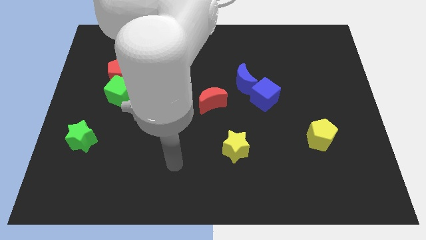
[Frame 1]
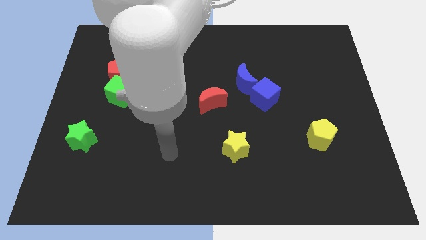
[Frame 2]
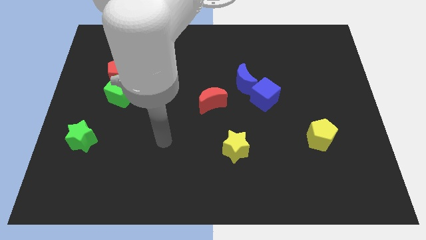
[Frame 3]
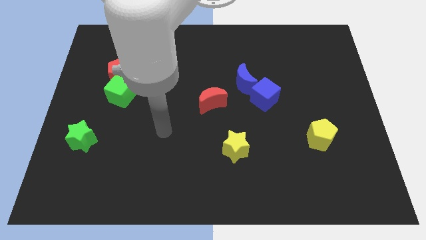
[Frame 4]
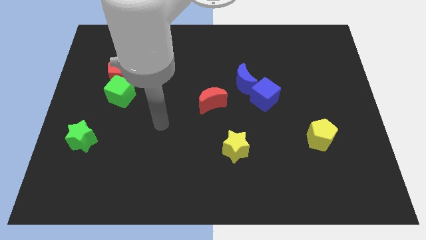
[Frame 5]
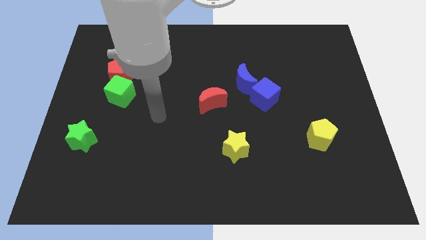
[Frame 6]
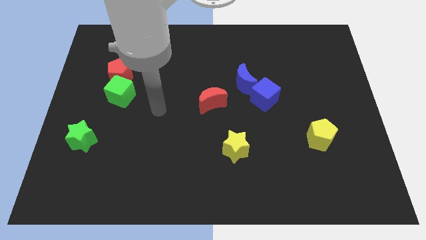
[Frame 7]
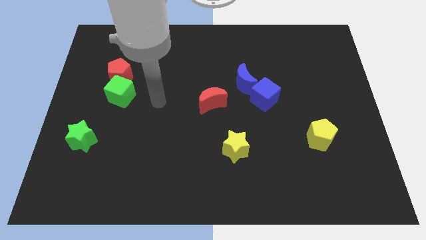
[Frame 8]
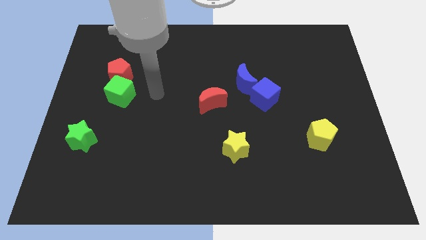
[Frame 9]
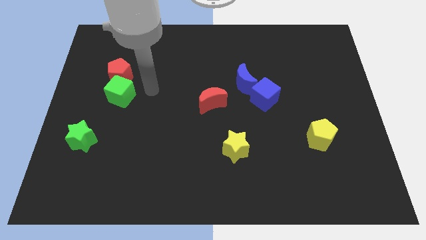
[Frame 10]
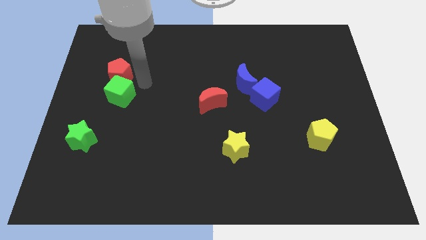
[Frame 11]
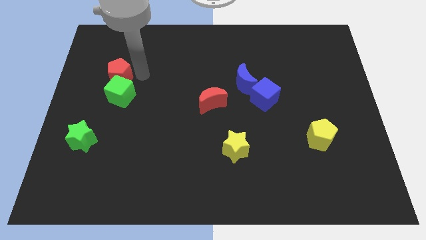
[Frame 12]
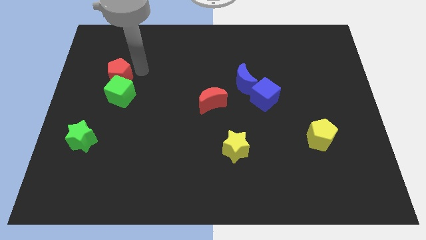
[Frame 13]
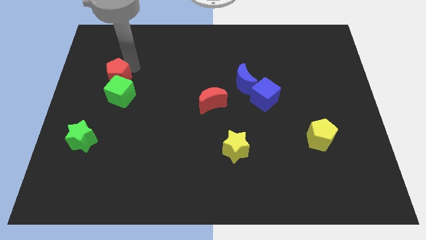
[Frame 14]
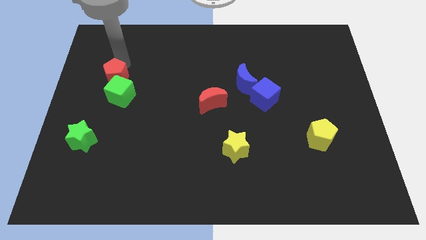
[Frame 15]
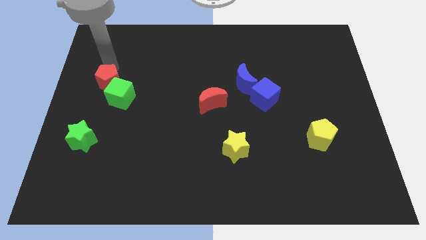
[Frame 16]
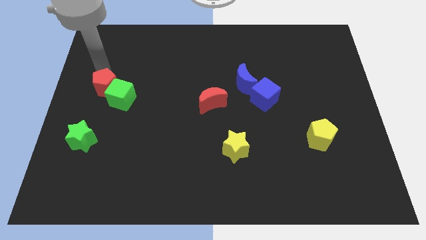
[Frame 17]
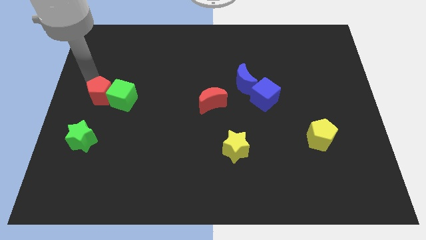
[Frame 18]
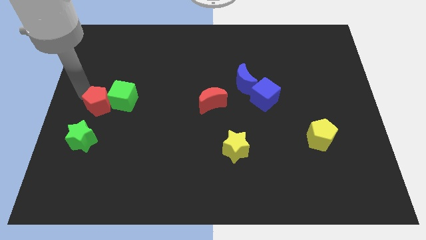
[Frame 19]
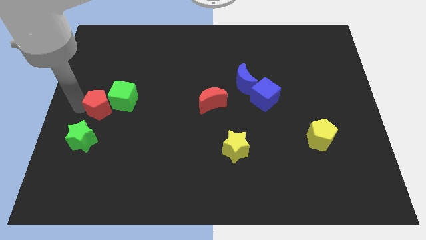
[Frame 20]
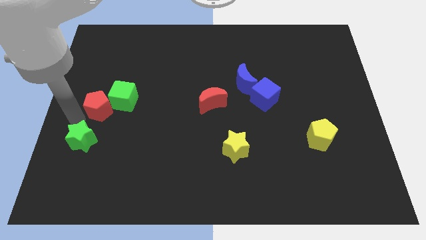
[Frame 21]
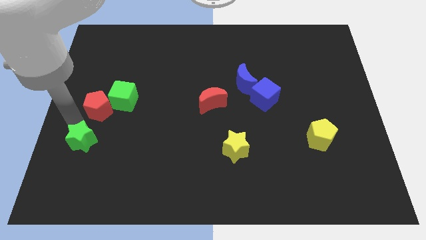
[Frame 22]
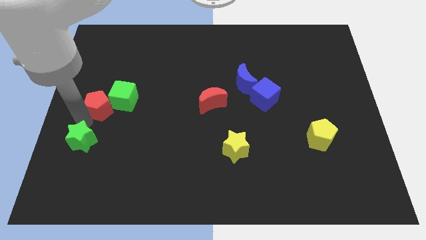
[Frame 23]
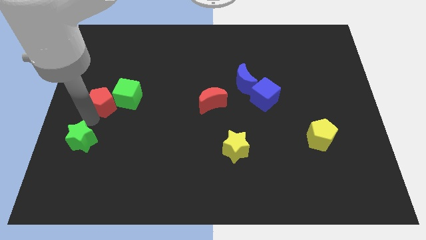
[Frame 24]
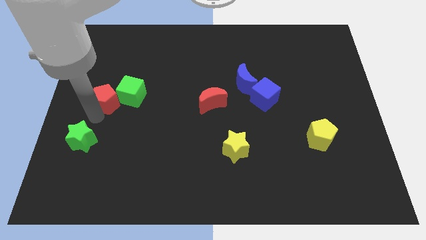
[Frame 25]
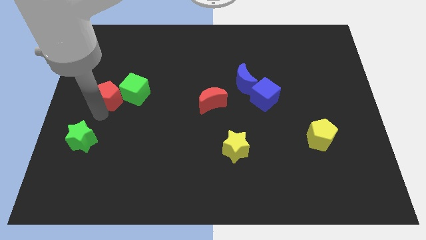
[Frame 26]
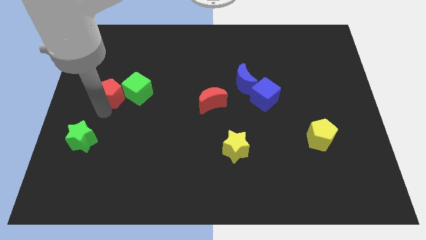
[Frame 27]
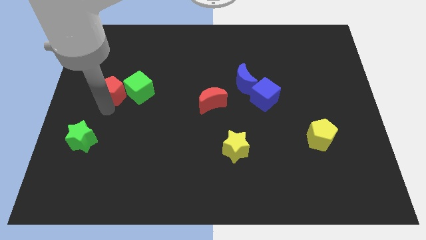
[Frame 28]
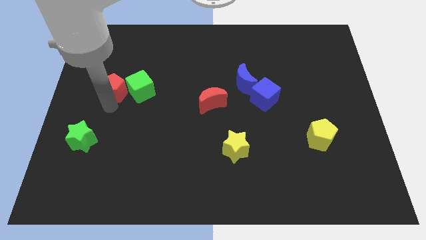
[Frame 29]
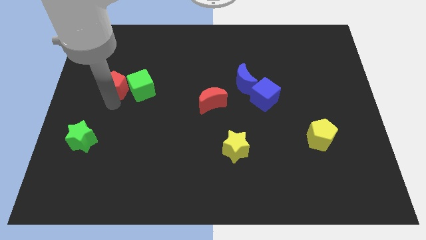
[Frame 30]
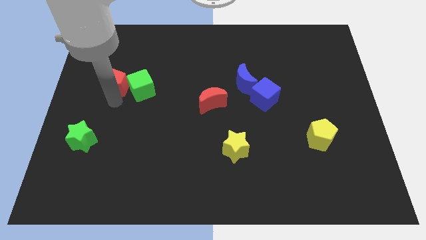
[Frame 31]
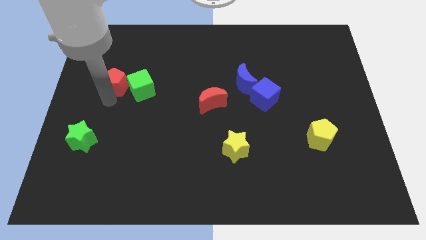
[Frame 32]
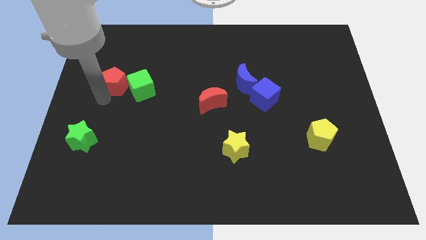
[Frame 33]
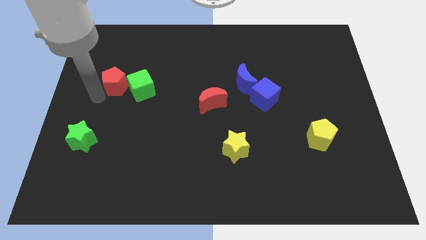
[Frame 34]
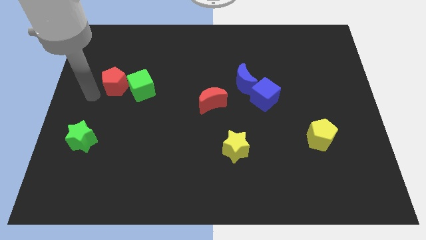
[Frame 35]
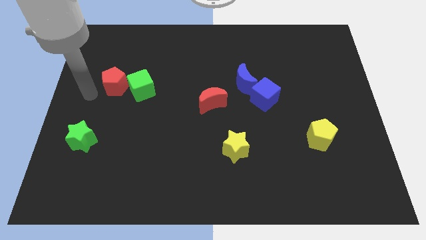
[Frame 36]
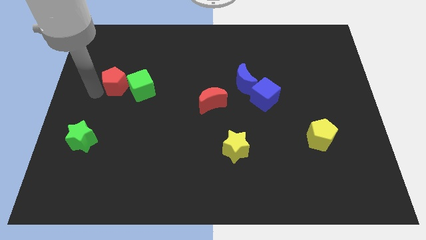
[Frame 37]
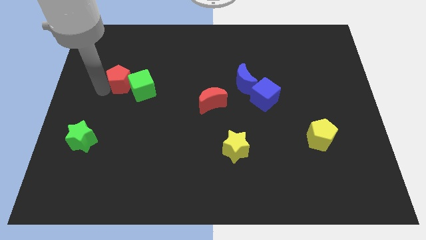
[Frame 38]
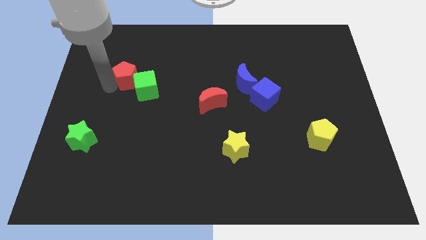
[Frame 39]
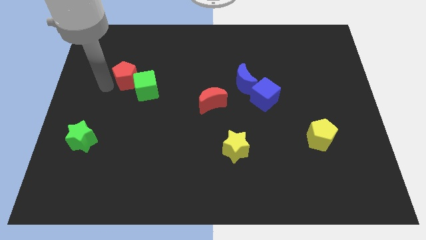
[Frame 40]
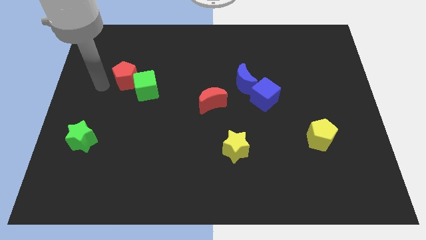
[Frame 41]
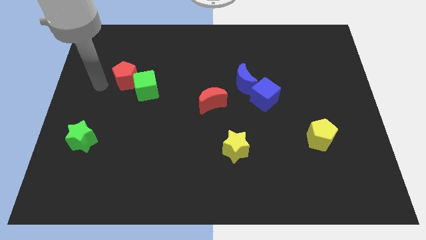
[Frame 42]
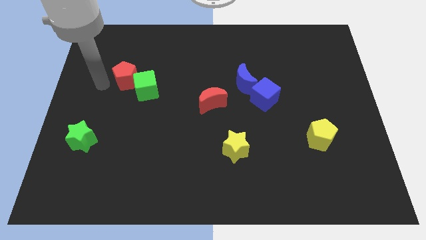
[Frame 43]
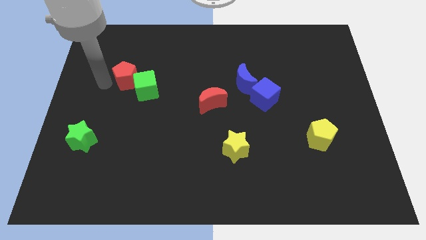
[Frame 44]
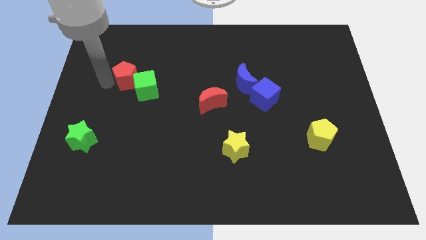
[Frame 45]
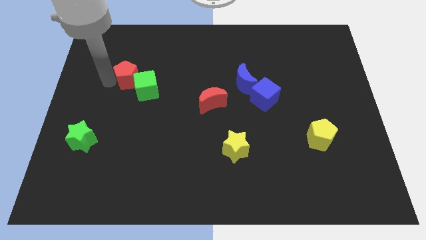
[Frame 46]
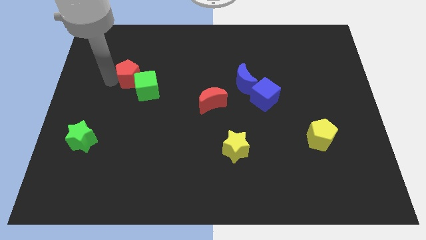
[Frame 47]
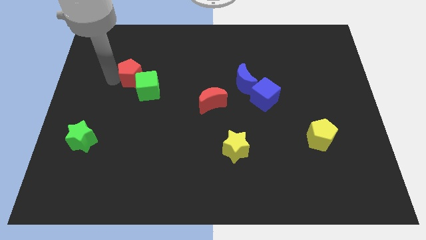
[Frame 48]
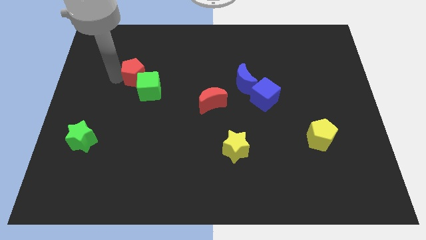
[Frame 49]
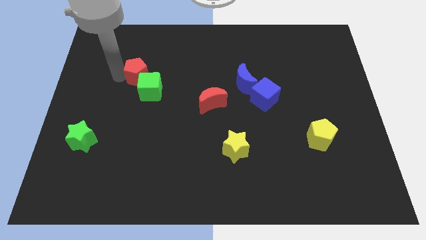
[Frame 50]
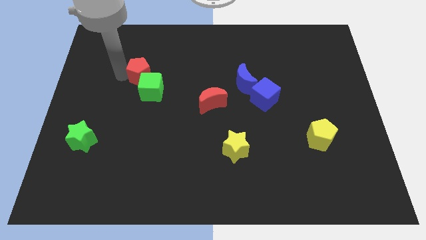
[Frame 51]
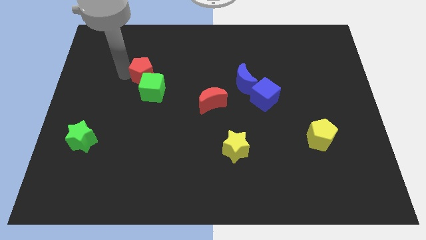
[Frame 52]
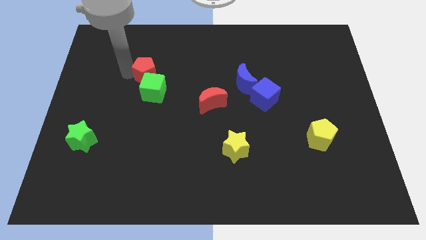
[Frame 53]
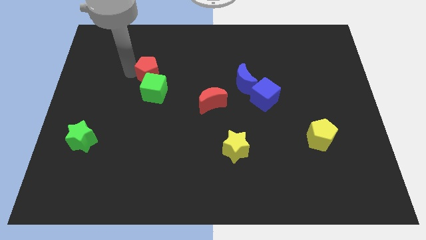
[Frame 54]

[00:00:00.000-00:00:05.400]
move the red pentagon a bit right

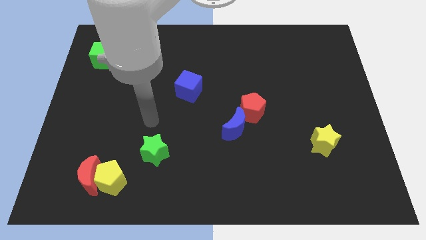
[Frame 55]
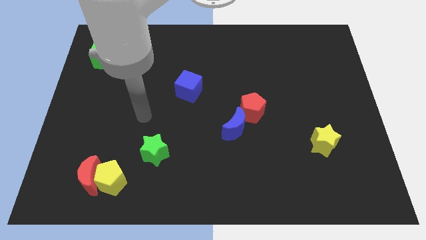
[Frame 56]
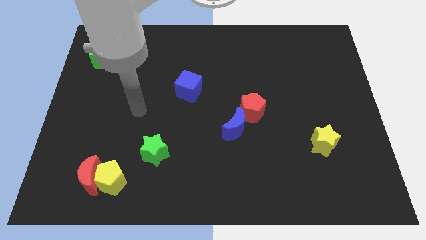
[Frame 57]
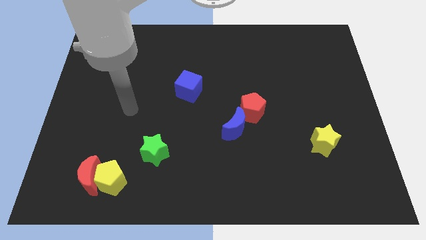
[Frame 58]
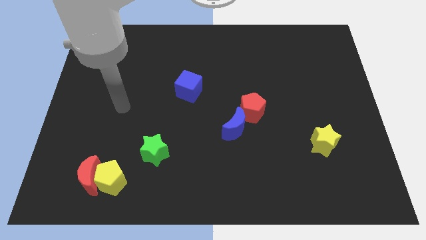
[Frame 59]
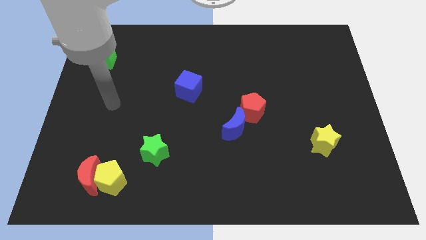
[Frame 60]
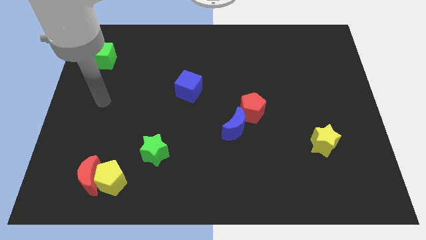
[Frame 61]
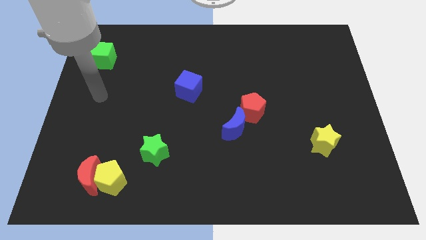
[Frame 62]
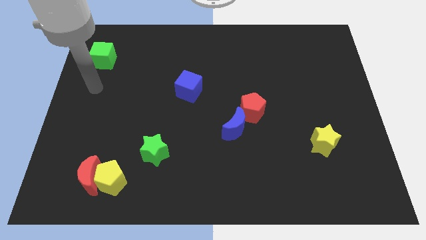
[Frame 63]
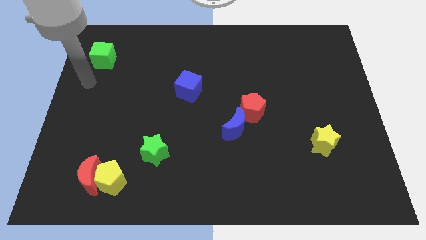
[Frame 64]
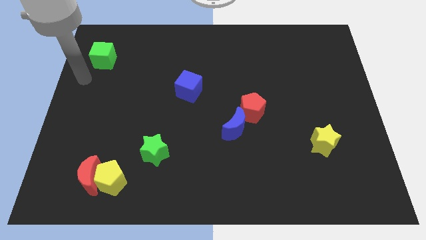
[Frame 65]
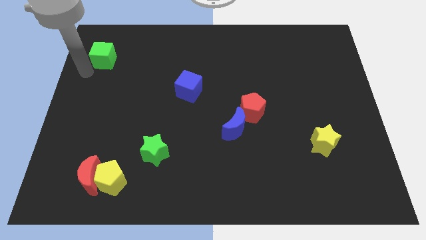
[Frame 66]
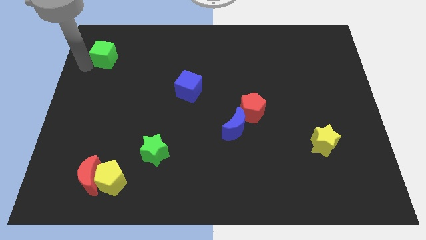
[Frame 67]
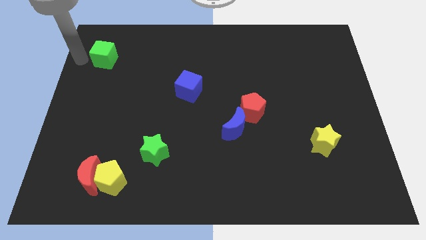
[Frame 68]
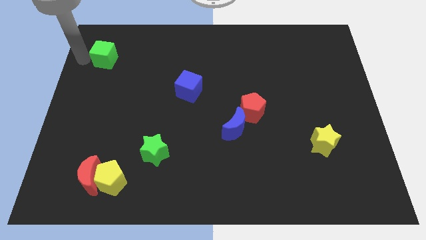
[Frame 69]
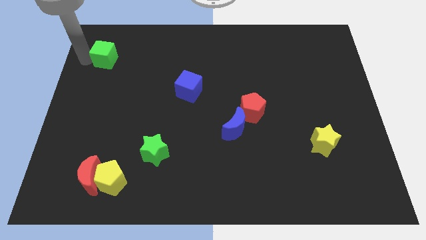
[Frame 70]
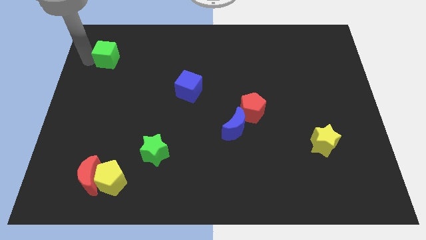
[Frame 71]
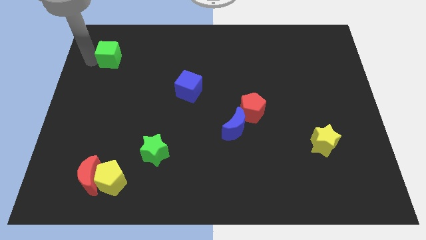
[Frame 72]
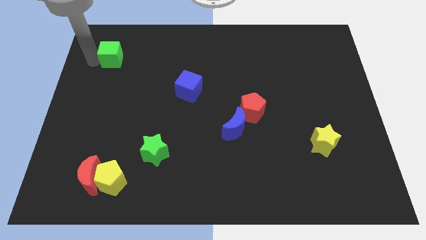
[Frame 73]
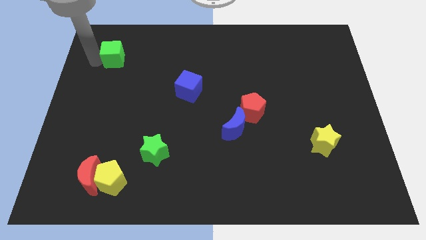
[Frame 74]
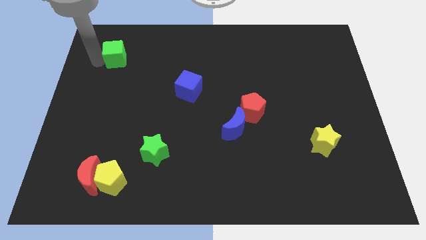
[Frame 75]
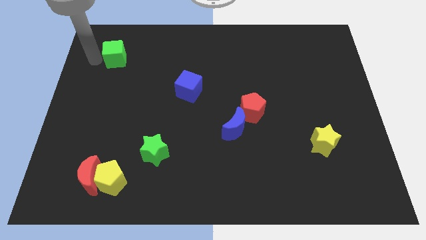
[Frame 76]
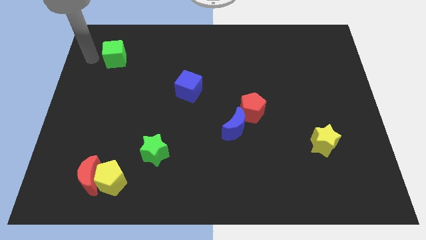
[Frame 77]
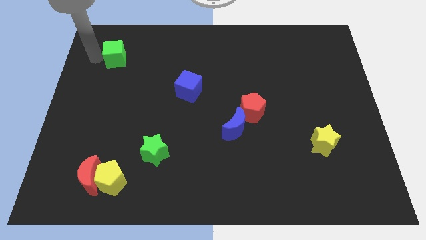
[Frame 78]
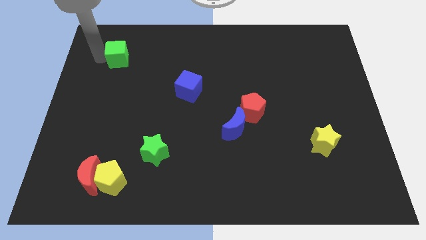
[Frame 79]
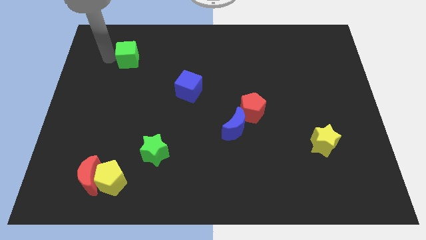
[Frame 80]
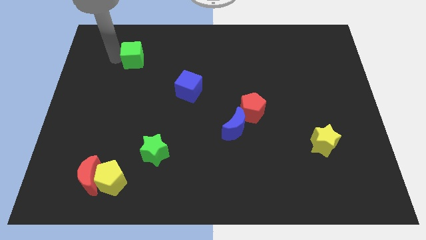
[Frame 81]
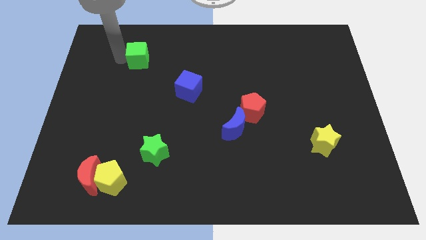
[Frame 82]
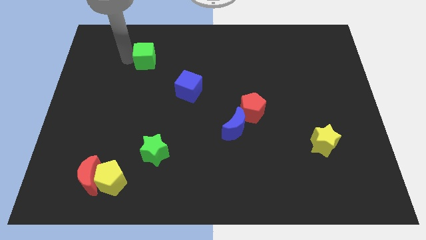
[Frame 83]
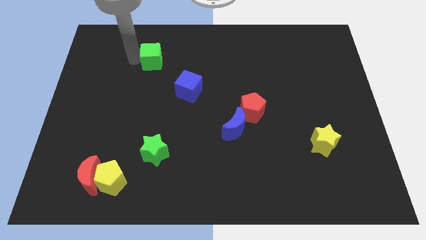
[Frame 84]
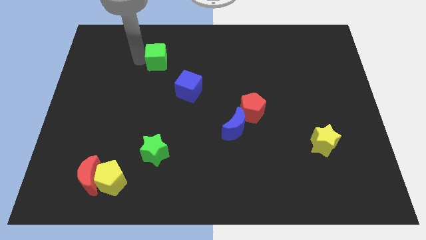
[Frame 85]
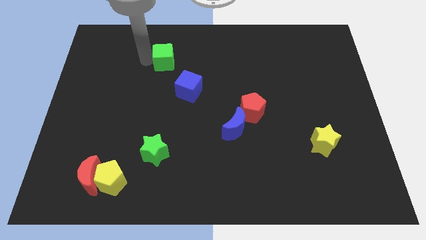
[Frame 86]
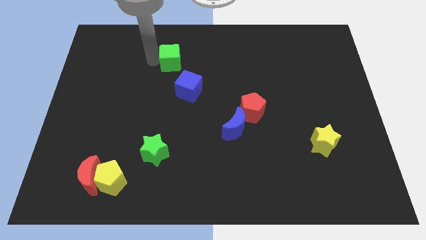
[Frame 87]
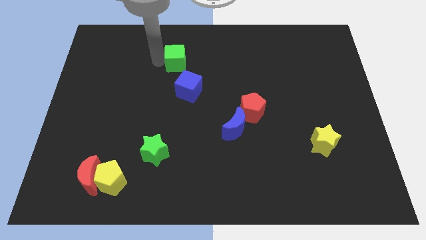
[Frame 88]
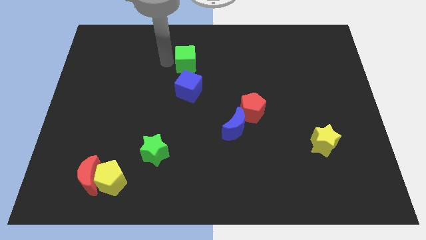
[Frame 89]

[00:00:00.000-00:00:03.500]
move the green cube right
